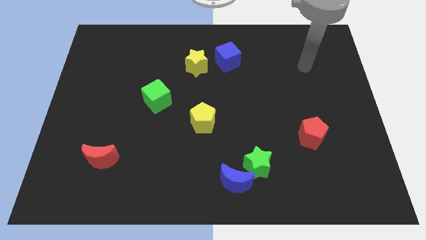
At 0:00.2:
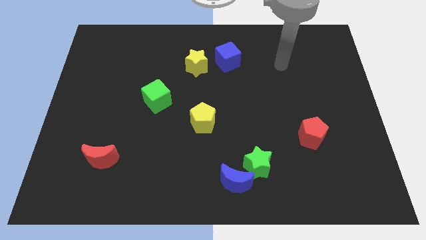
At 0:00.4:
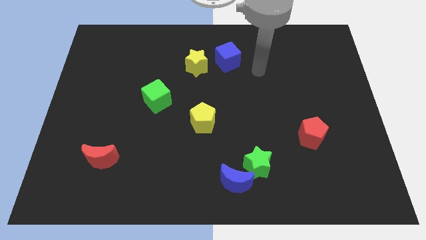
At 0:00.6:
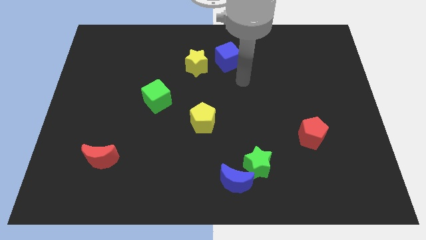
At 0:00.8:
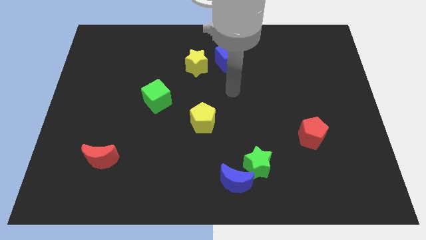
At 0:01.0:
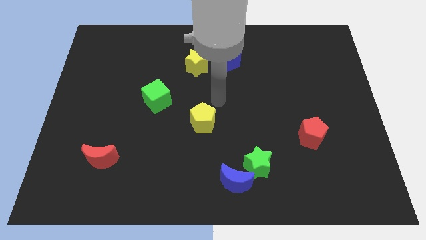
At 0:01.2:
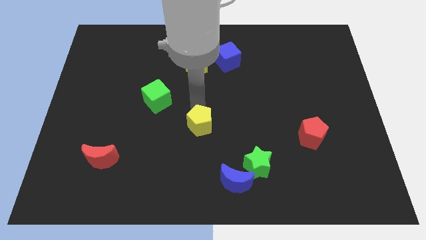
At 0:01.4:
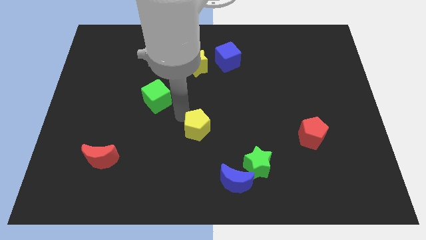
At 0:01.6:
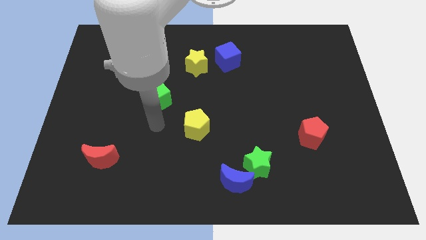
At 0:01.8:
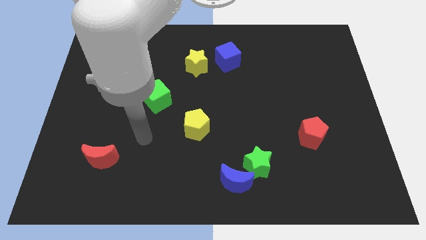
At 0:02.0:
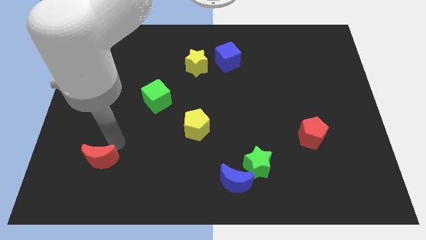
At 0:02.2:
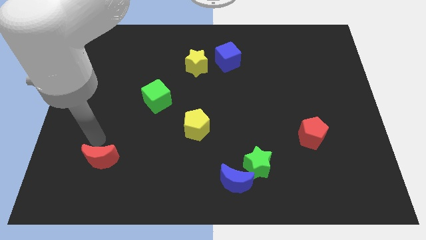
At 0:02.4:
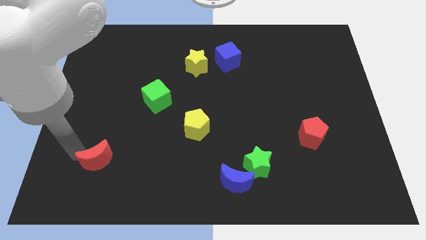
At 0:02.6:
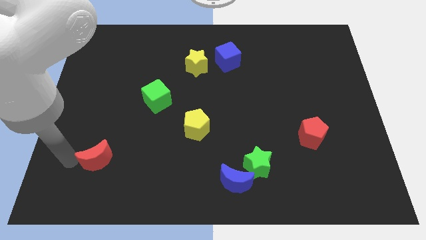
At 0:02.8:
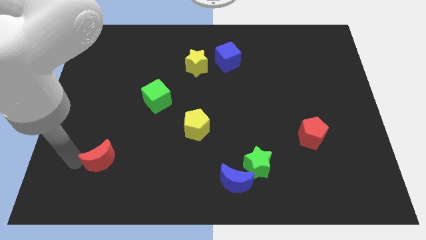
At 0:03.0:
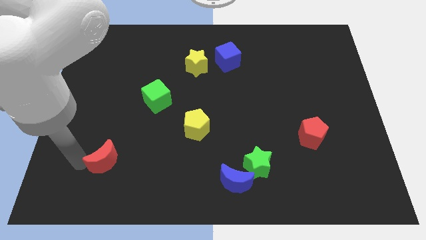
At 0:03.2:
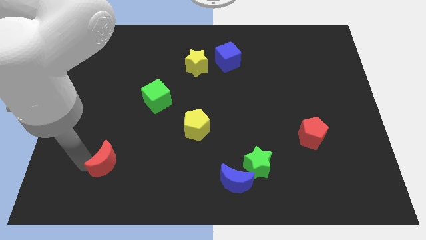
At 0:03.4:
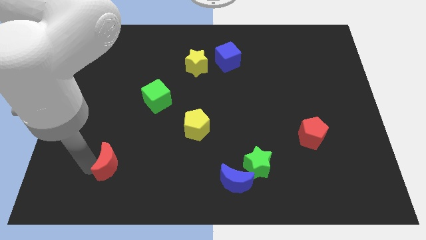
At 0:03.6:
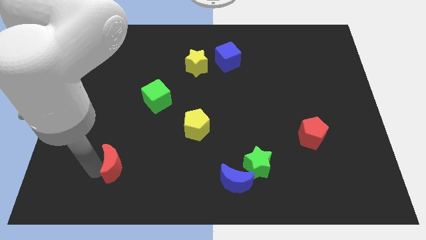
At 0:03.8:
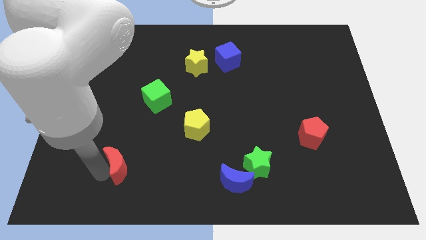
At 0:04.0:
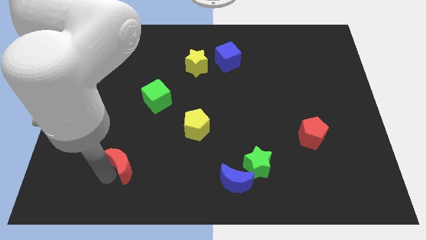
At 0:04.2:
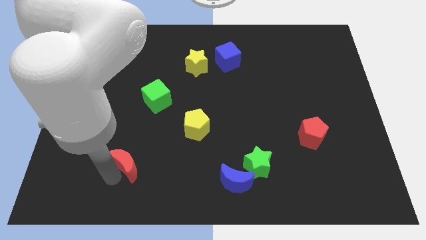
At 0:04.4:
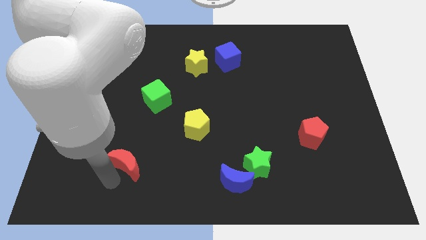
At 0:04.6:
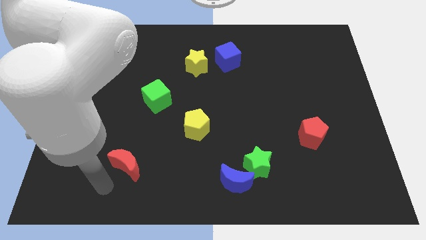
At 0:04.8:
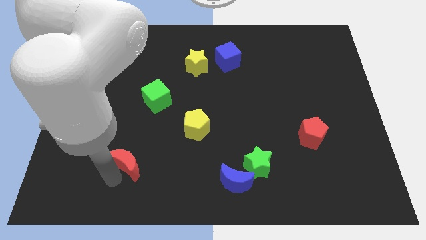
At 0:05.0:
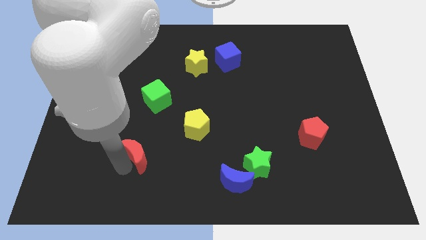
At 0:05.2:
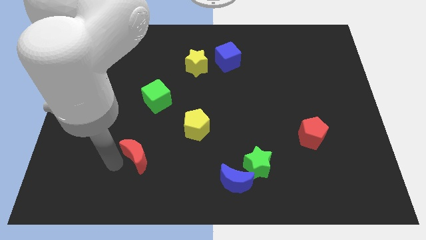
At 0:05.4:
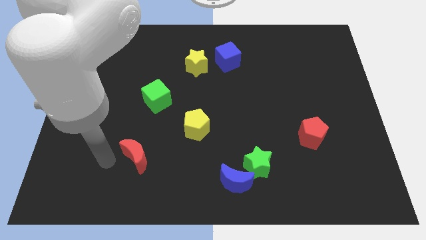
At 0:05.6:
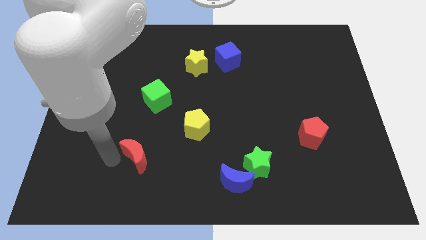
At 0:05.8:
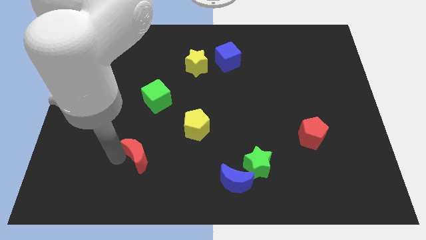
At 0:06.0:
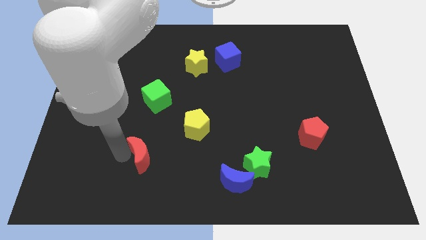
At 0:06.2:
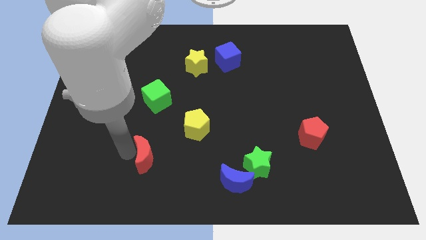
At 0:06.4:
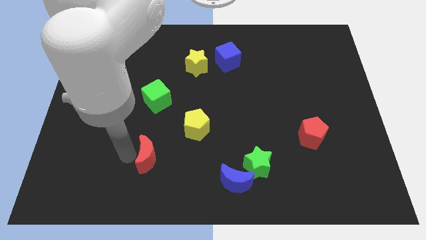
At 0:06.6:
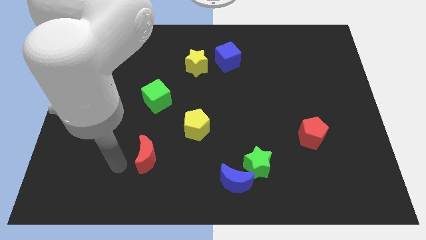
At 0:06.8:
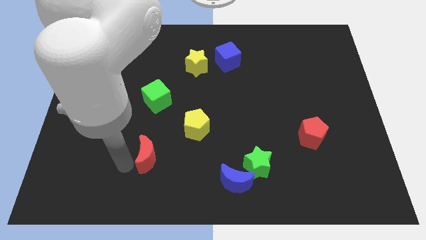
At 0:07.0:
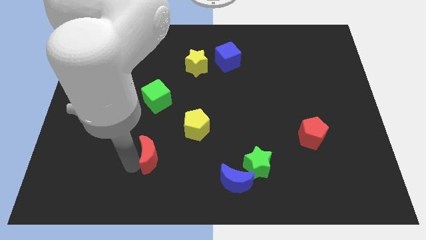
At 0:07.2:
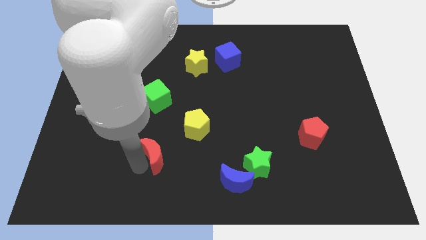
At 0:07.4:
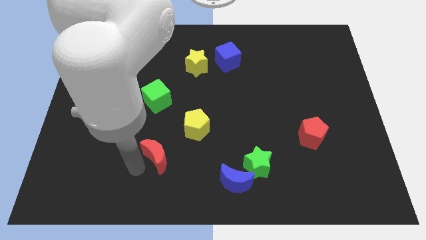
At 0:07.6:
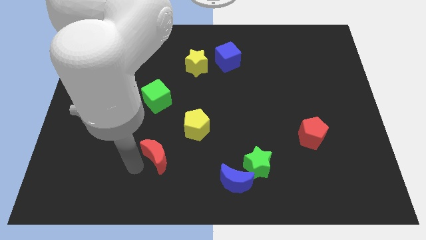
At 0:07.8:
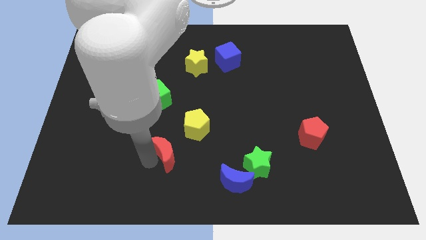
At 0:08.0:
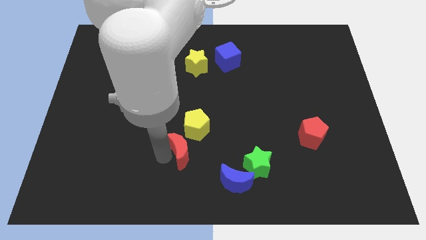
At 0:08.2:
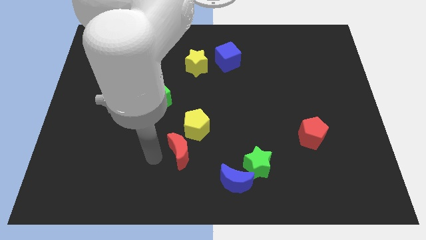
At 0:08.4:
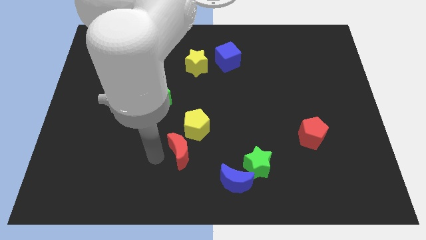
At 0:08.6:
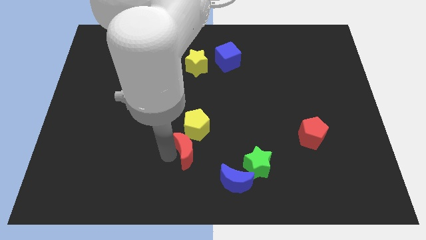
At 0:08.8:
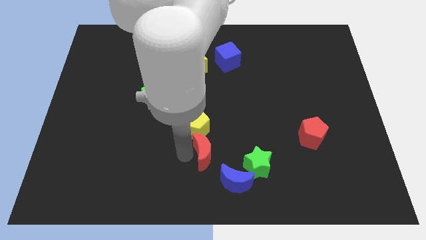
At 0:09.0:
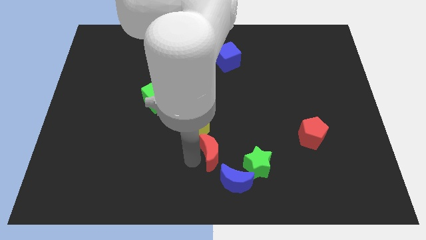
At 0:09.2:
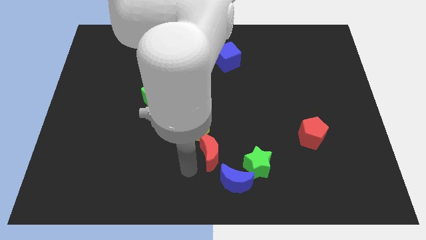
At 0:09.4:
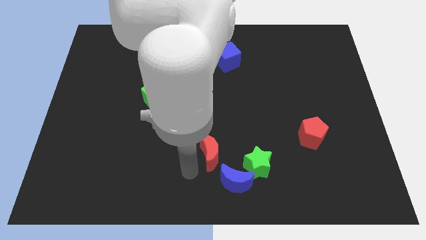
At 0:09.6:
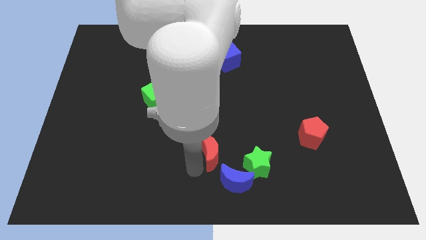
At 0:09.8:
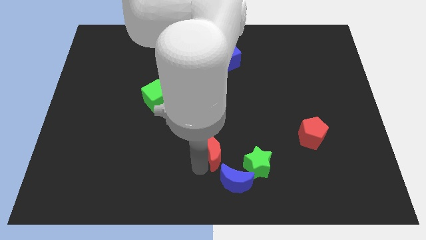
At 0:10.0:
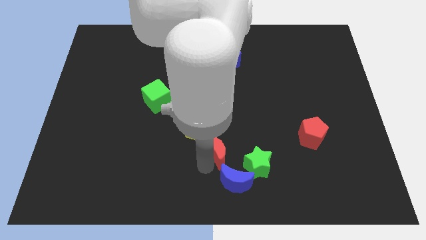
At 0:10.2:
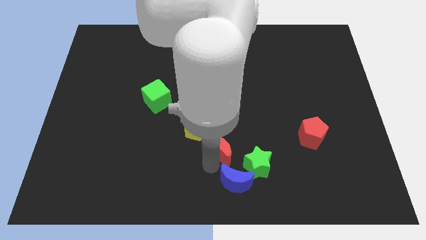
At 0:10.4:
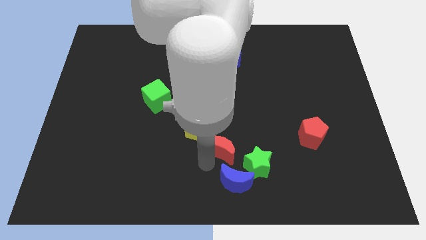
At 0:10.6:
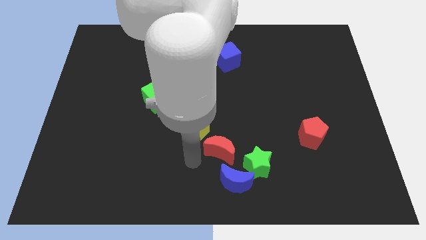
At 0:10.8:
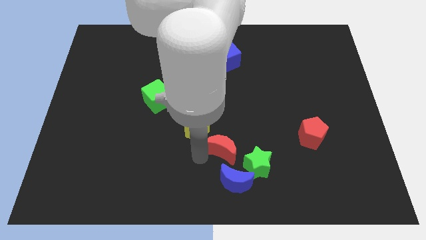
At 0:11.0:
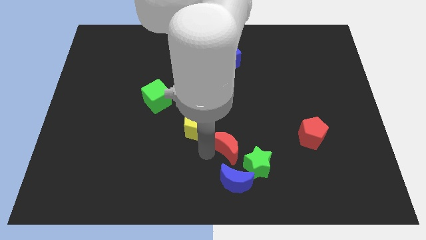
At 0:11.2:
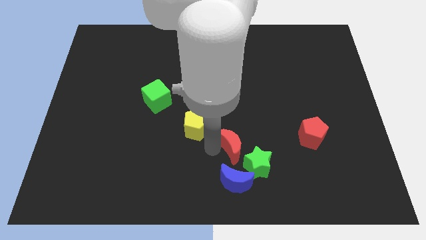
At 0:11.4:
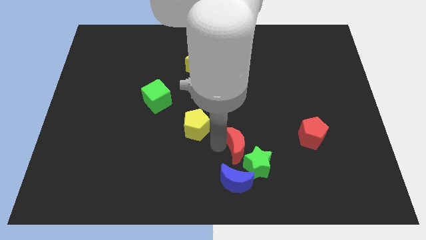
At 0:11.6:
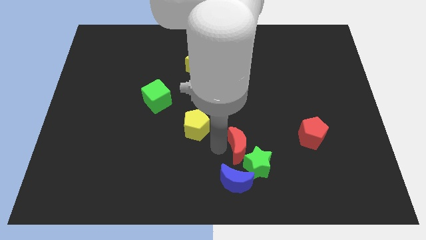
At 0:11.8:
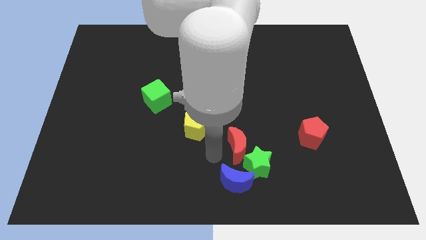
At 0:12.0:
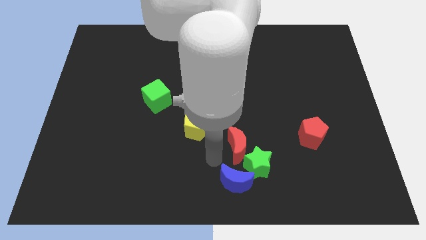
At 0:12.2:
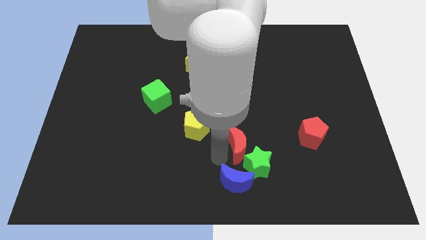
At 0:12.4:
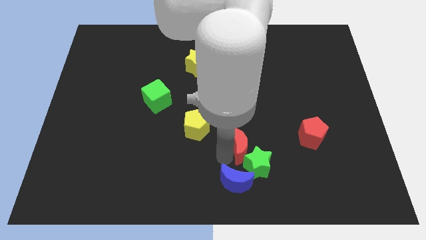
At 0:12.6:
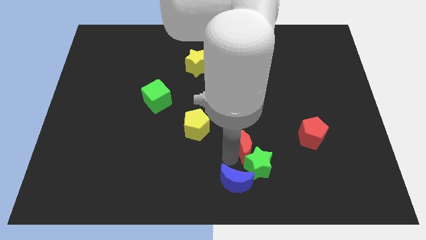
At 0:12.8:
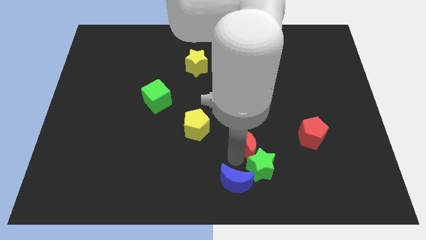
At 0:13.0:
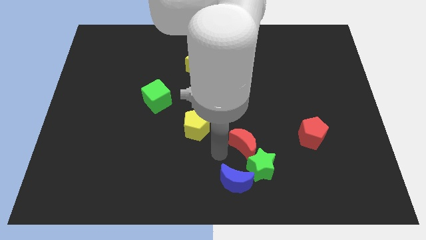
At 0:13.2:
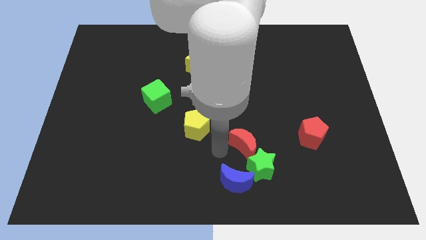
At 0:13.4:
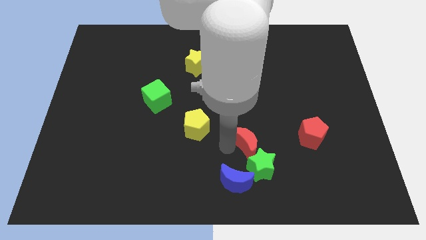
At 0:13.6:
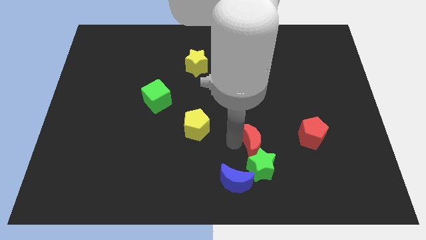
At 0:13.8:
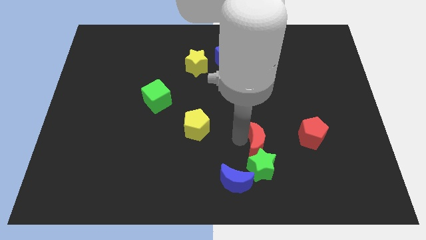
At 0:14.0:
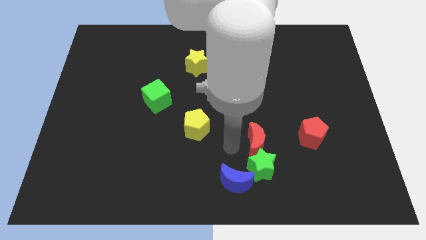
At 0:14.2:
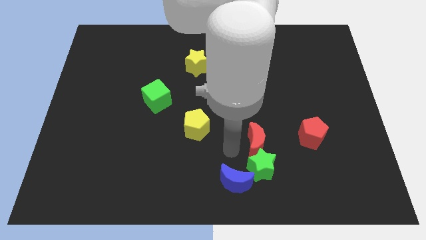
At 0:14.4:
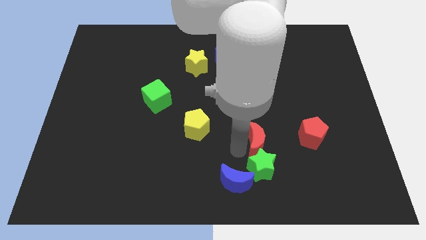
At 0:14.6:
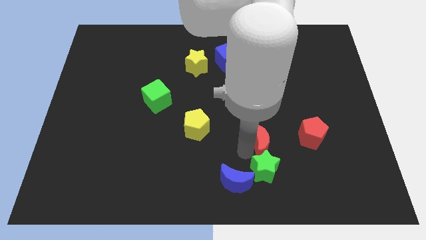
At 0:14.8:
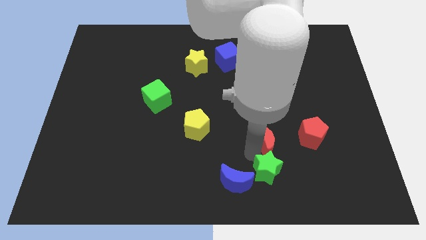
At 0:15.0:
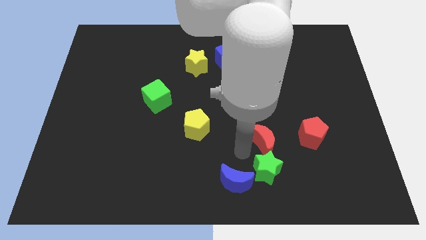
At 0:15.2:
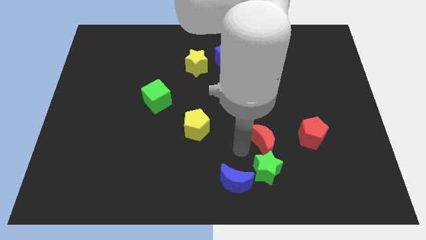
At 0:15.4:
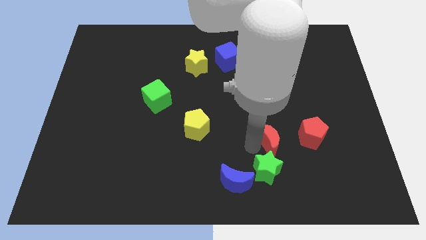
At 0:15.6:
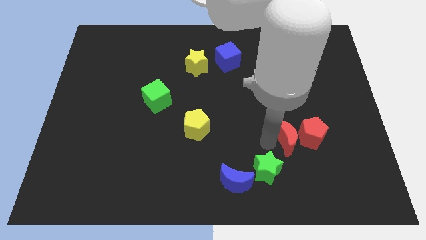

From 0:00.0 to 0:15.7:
push the red moon to the red pentagon
